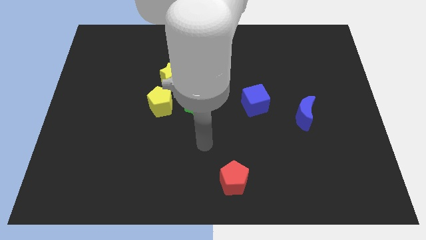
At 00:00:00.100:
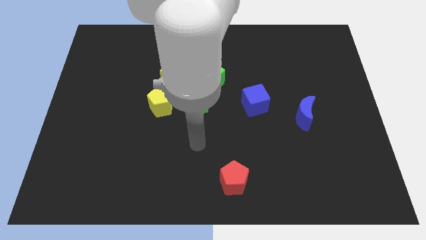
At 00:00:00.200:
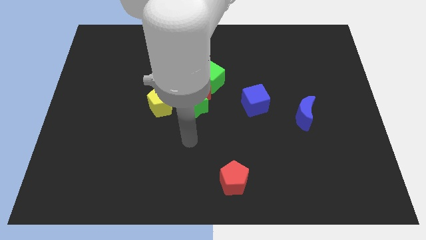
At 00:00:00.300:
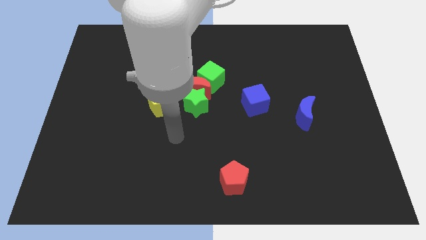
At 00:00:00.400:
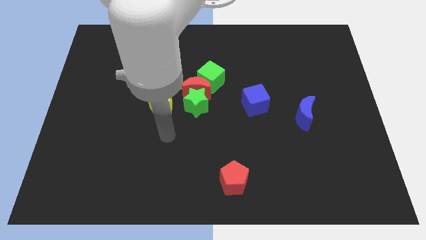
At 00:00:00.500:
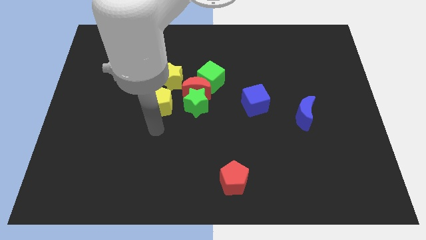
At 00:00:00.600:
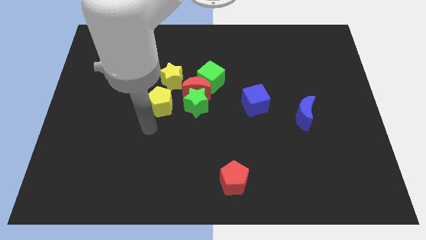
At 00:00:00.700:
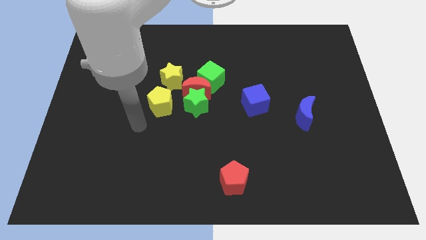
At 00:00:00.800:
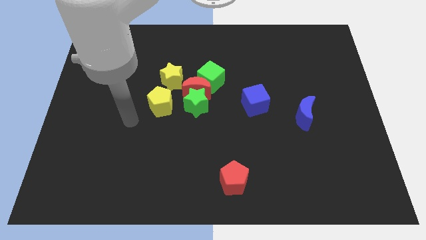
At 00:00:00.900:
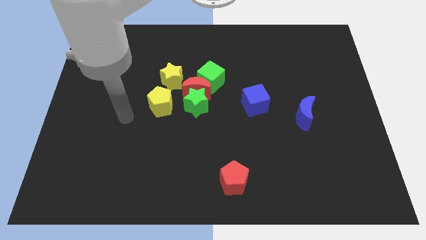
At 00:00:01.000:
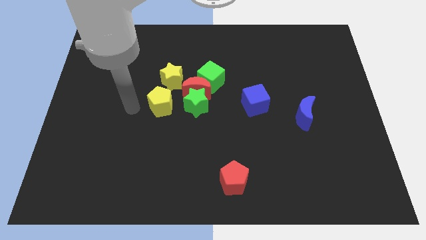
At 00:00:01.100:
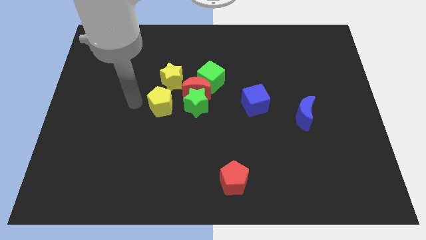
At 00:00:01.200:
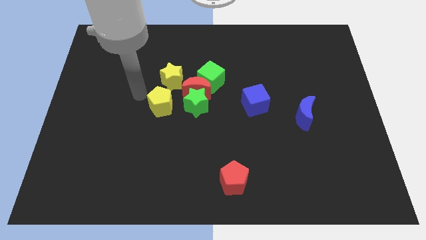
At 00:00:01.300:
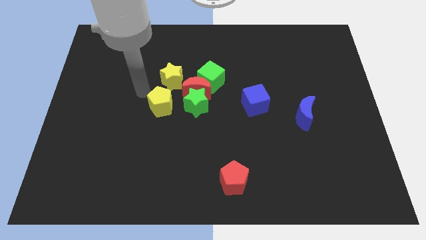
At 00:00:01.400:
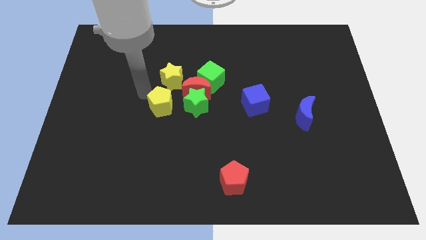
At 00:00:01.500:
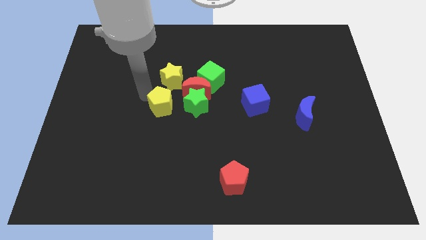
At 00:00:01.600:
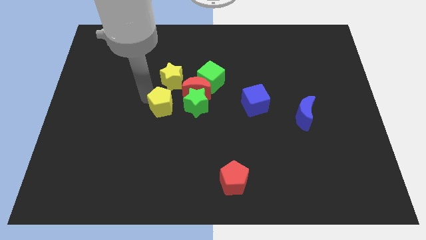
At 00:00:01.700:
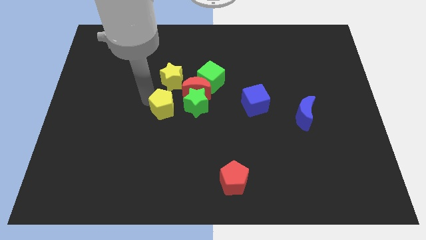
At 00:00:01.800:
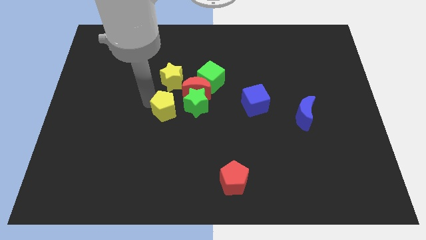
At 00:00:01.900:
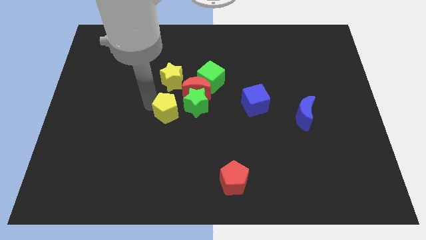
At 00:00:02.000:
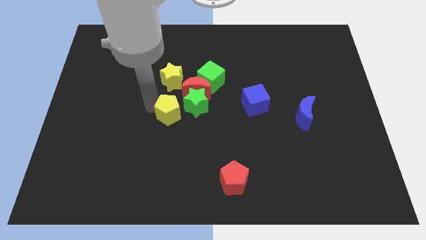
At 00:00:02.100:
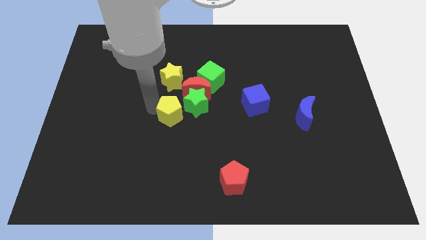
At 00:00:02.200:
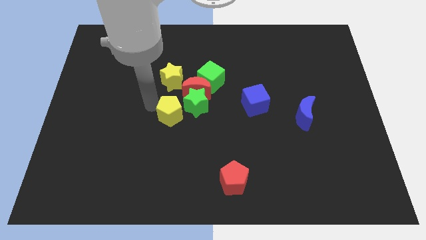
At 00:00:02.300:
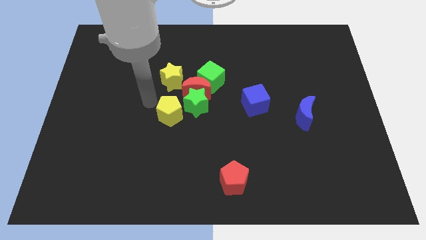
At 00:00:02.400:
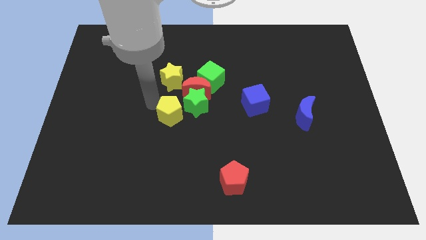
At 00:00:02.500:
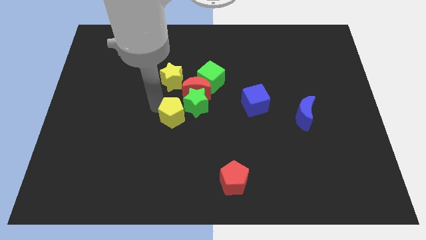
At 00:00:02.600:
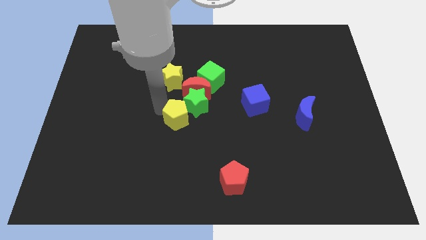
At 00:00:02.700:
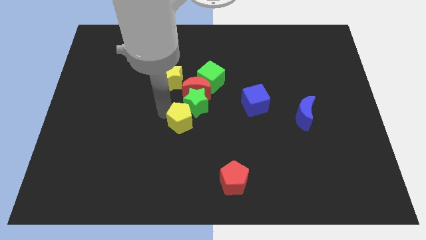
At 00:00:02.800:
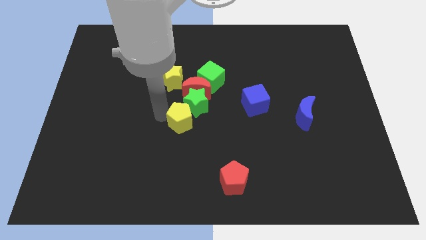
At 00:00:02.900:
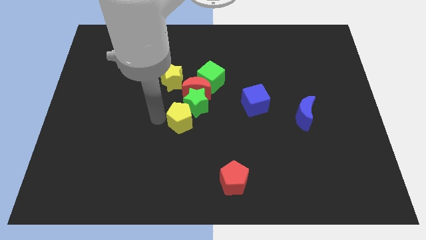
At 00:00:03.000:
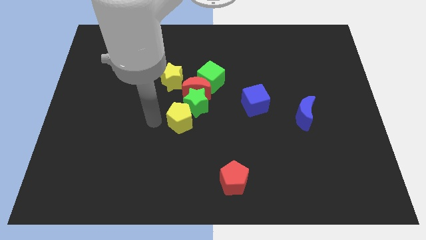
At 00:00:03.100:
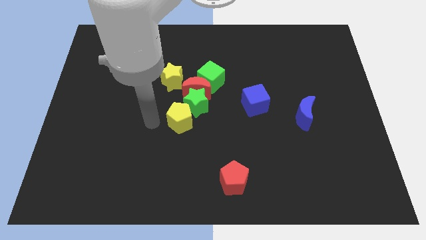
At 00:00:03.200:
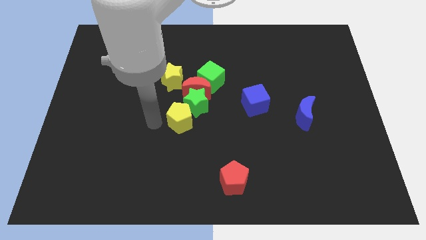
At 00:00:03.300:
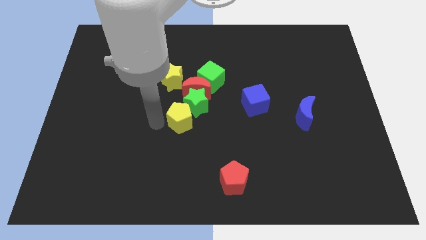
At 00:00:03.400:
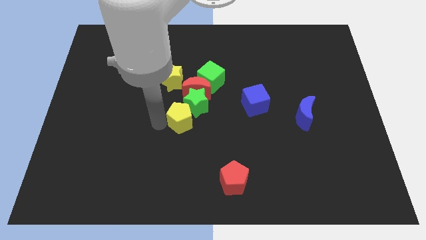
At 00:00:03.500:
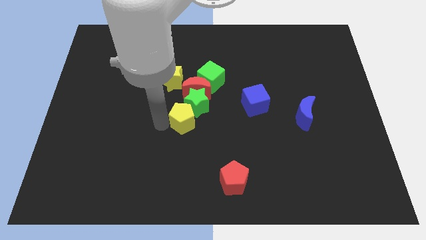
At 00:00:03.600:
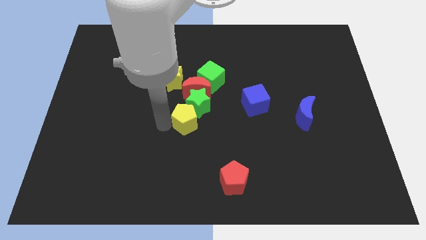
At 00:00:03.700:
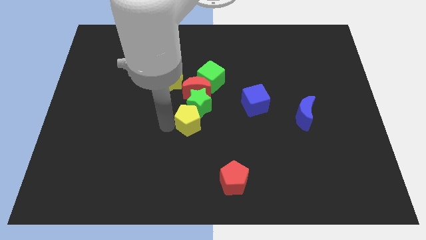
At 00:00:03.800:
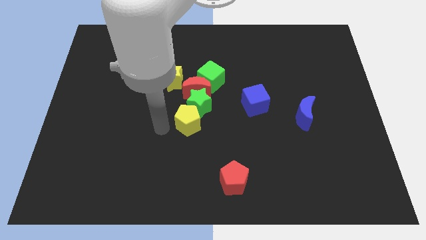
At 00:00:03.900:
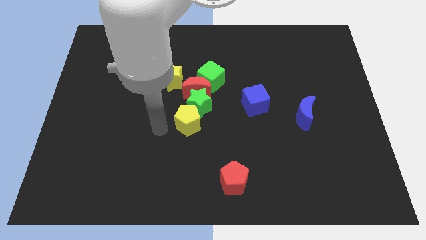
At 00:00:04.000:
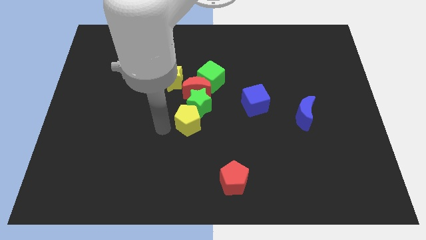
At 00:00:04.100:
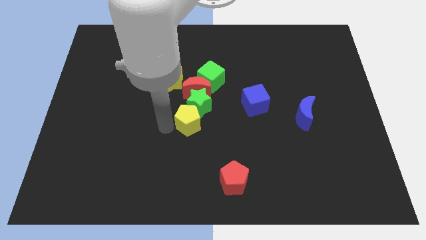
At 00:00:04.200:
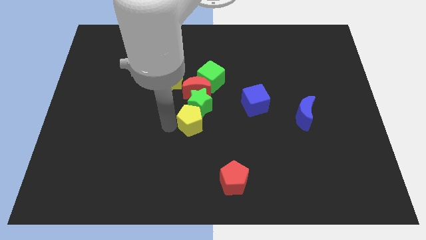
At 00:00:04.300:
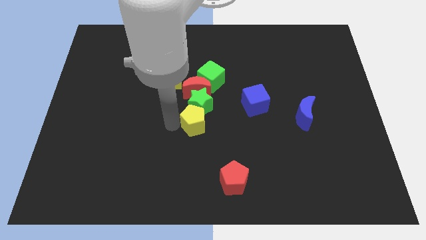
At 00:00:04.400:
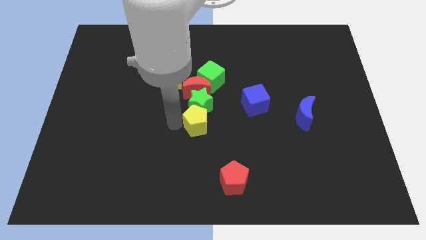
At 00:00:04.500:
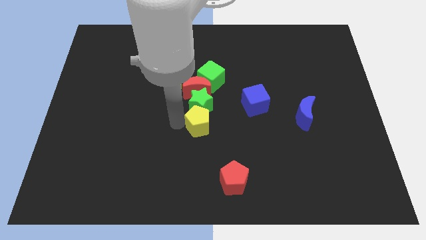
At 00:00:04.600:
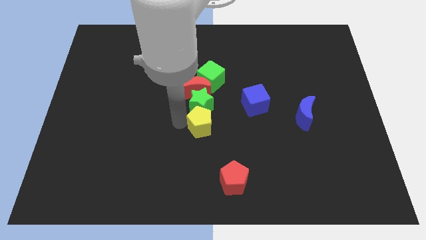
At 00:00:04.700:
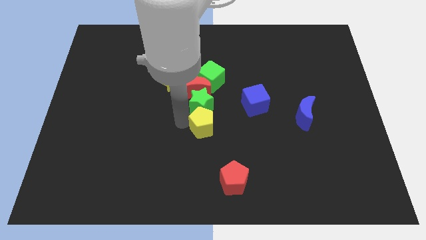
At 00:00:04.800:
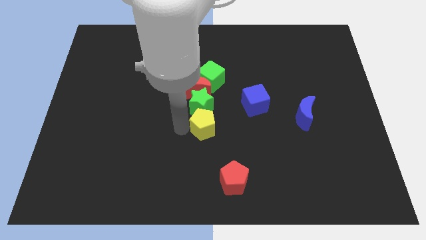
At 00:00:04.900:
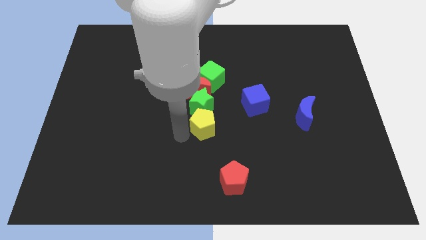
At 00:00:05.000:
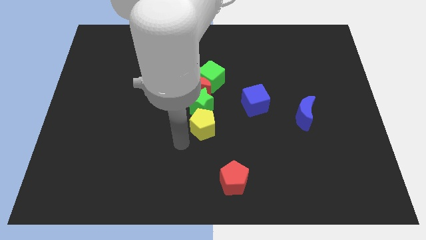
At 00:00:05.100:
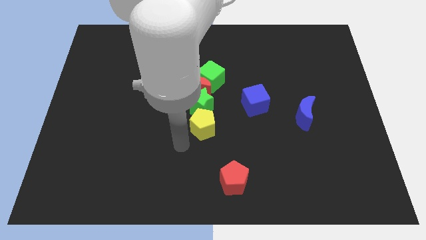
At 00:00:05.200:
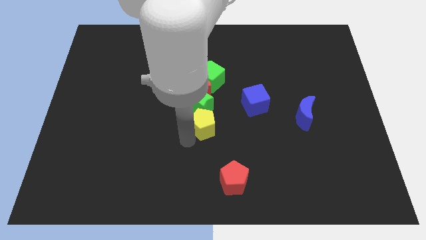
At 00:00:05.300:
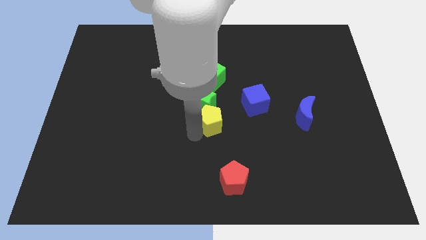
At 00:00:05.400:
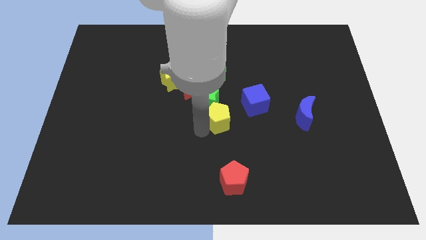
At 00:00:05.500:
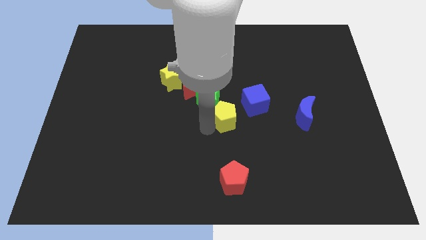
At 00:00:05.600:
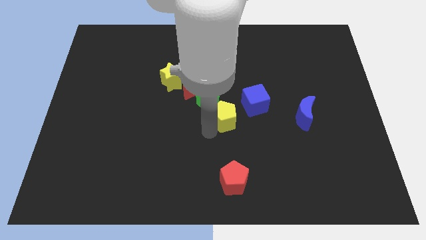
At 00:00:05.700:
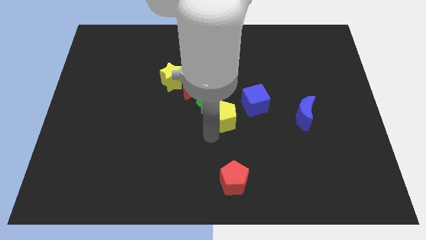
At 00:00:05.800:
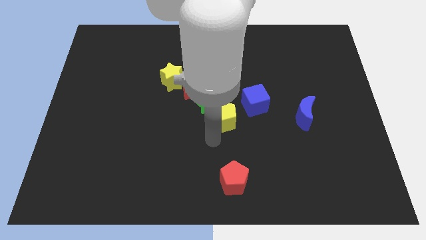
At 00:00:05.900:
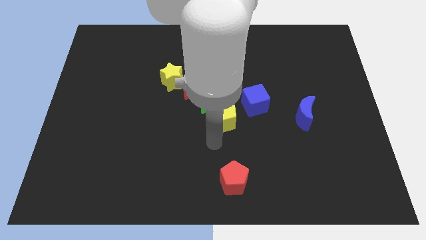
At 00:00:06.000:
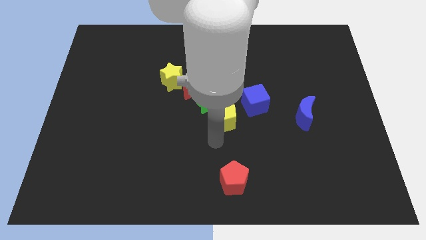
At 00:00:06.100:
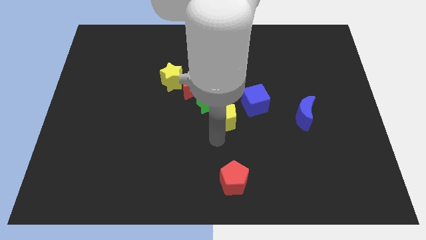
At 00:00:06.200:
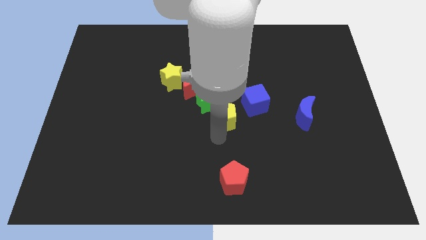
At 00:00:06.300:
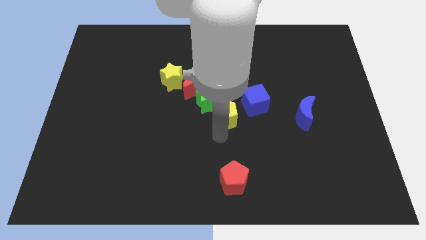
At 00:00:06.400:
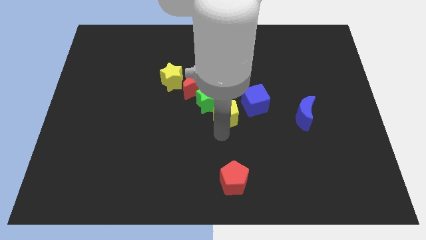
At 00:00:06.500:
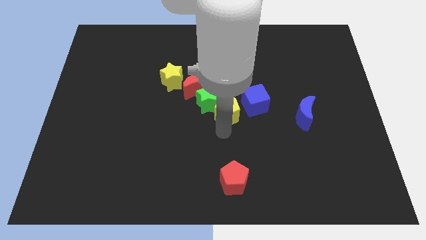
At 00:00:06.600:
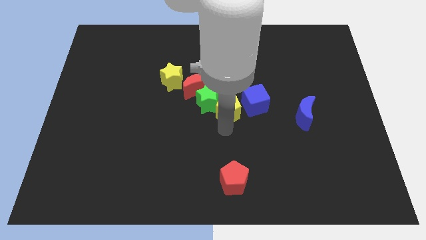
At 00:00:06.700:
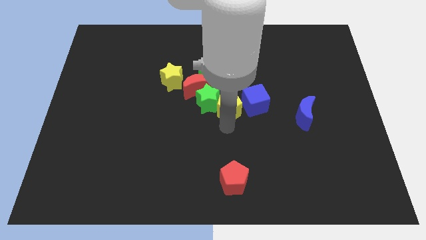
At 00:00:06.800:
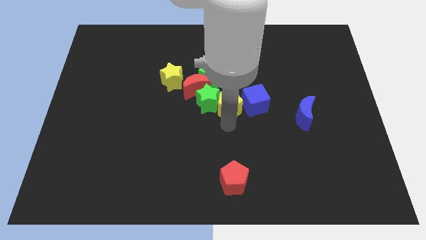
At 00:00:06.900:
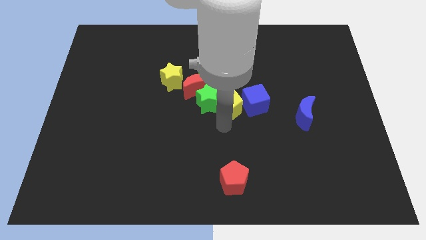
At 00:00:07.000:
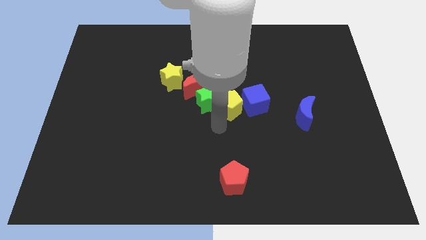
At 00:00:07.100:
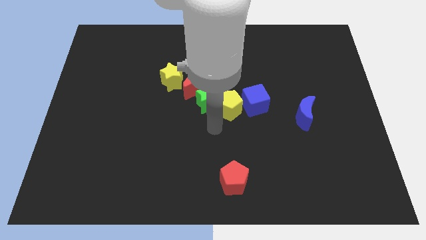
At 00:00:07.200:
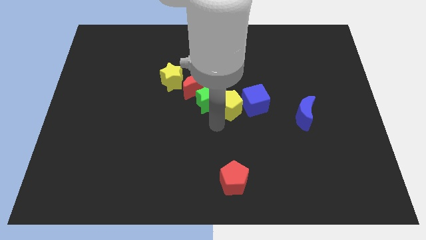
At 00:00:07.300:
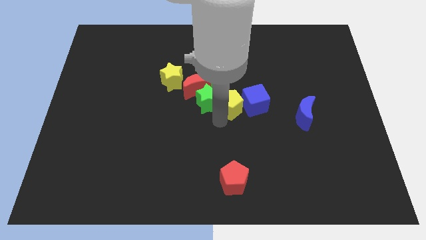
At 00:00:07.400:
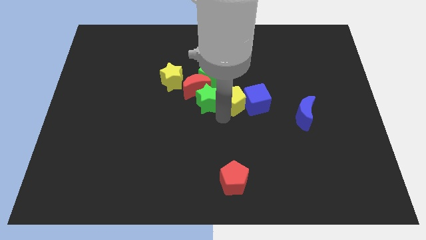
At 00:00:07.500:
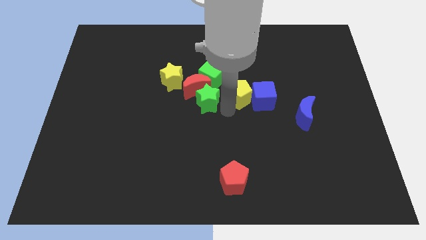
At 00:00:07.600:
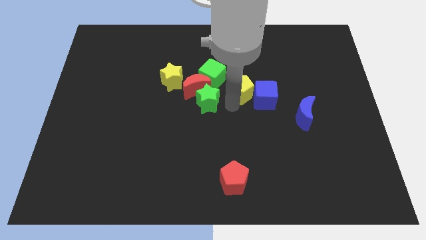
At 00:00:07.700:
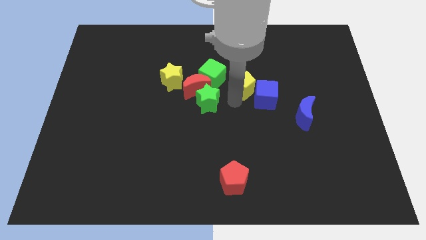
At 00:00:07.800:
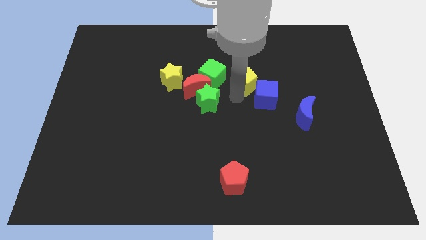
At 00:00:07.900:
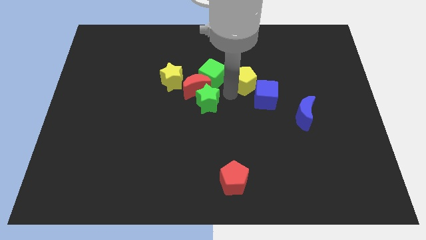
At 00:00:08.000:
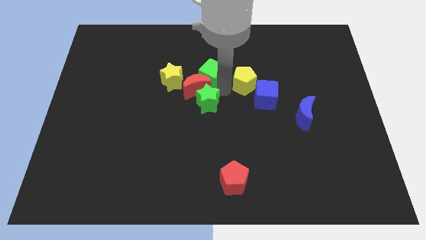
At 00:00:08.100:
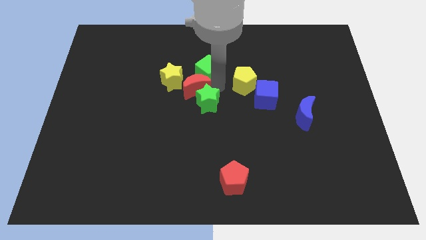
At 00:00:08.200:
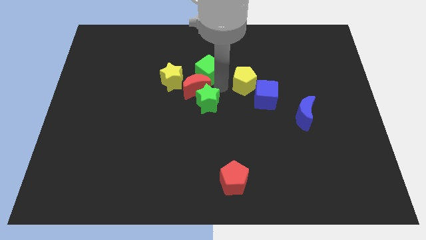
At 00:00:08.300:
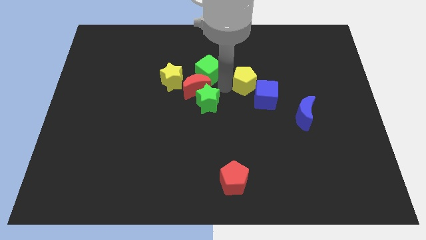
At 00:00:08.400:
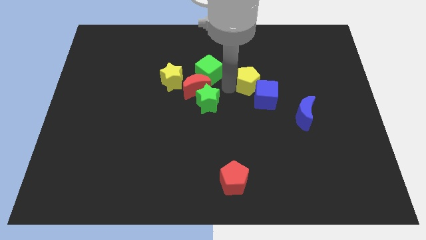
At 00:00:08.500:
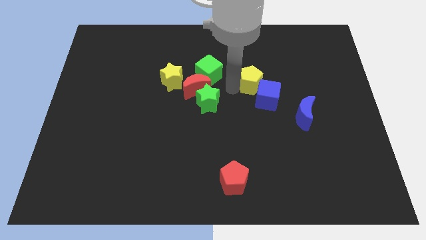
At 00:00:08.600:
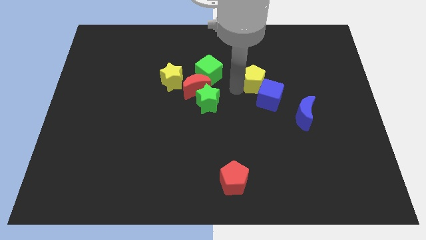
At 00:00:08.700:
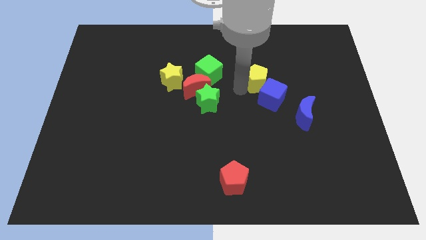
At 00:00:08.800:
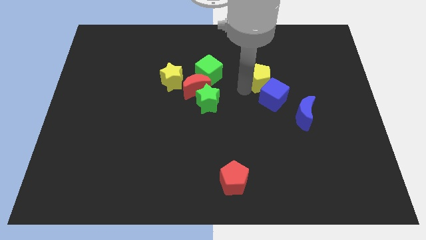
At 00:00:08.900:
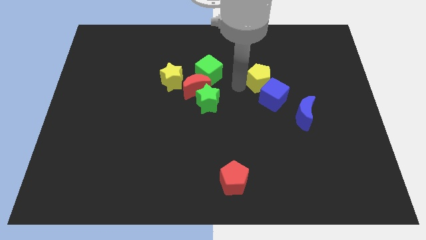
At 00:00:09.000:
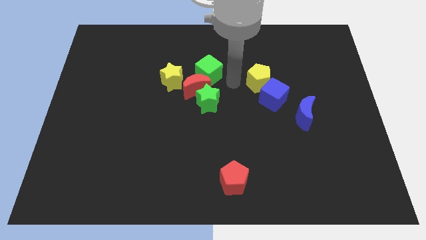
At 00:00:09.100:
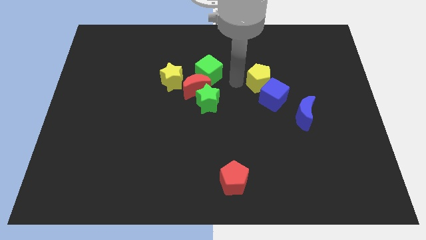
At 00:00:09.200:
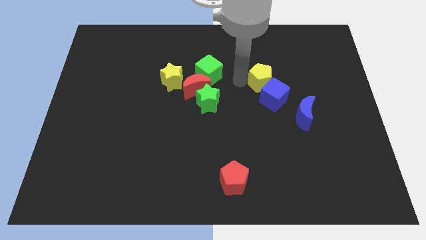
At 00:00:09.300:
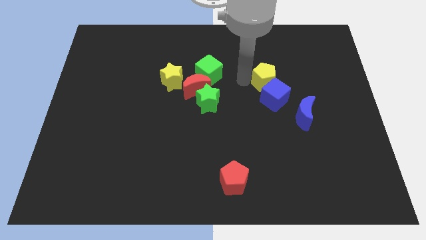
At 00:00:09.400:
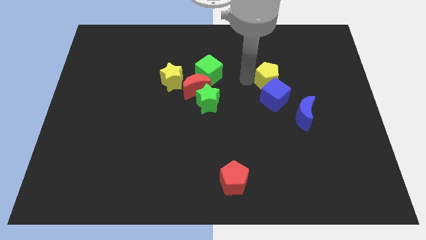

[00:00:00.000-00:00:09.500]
slide the yellow pentagon to the top right side of the blue cube
